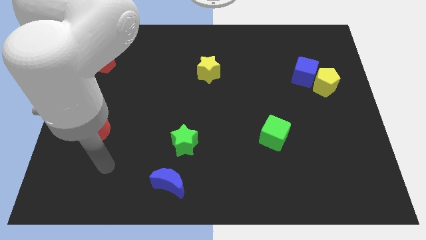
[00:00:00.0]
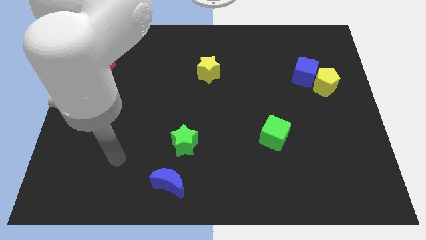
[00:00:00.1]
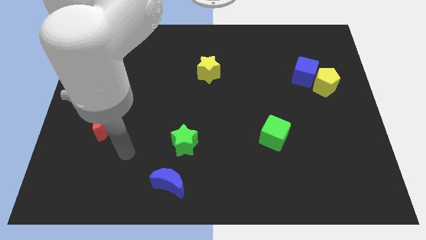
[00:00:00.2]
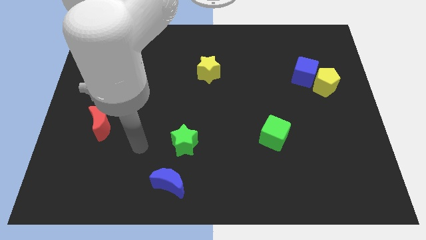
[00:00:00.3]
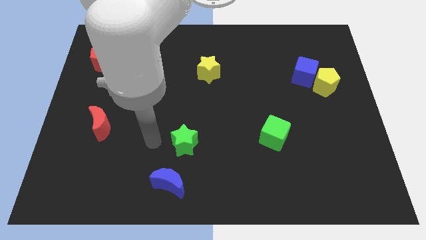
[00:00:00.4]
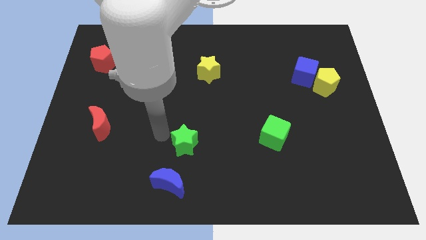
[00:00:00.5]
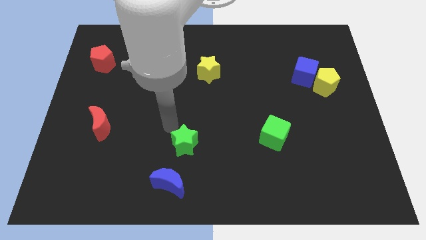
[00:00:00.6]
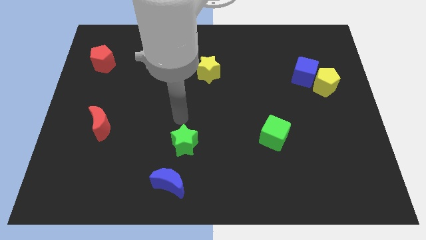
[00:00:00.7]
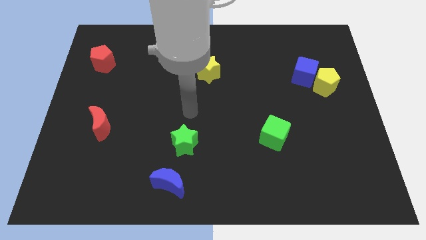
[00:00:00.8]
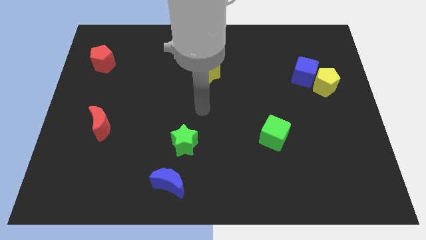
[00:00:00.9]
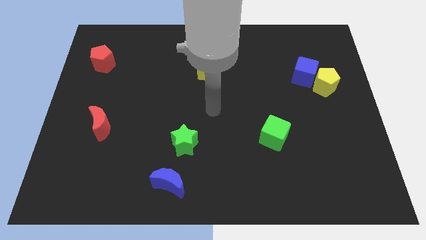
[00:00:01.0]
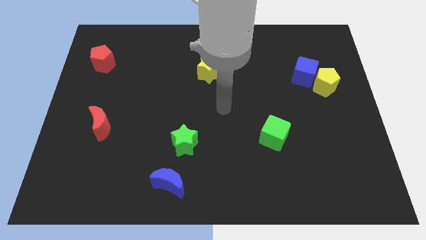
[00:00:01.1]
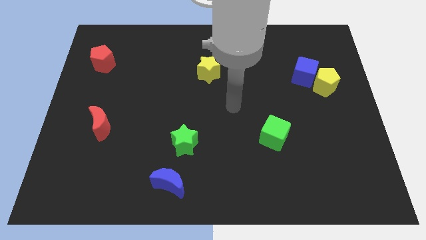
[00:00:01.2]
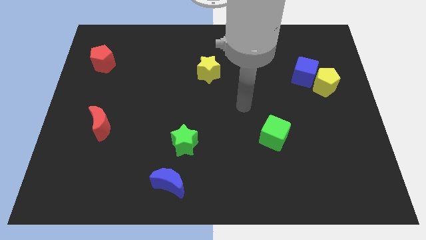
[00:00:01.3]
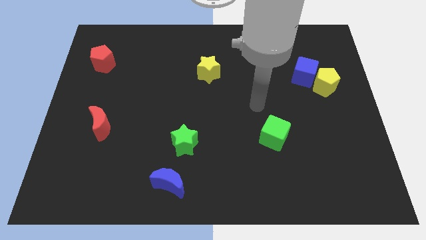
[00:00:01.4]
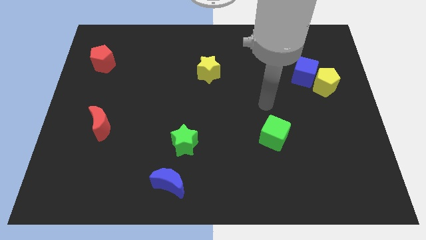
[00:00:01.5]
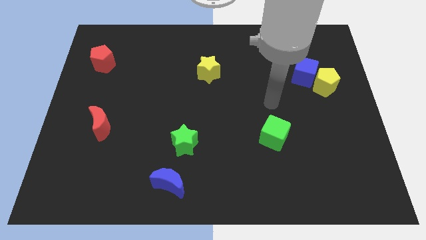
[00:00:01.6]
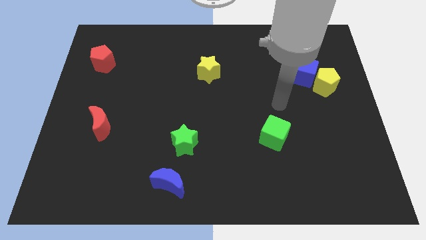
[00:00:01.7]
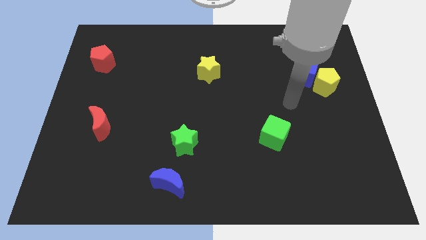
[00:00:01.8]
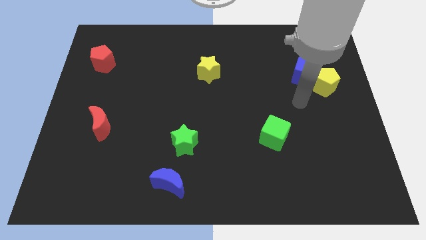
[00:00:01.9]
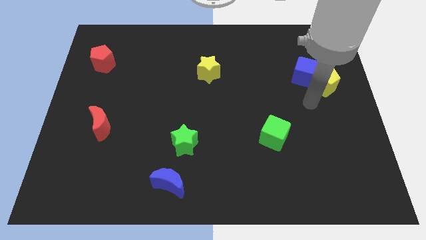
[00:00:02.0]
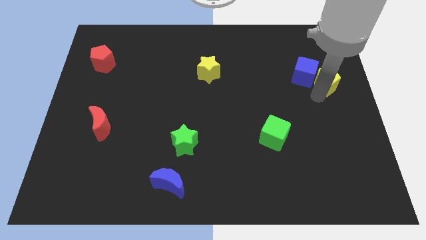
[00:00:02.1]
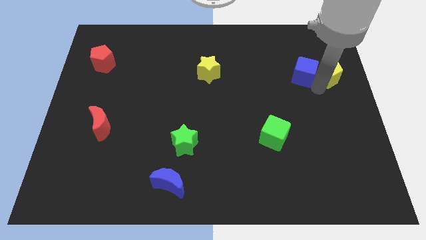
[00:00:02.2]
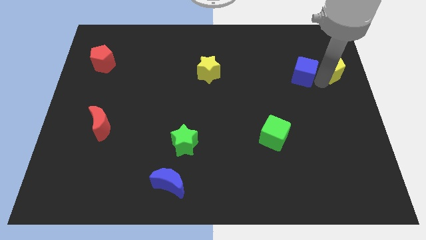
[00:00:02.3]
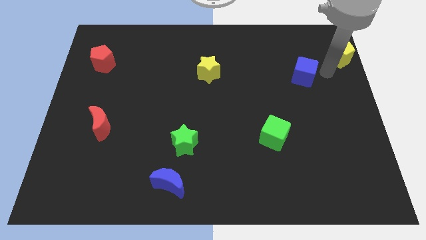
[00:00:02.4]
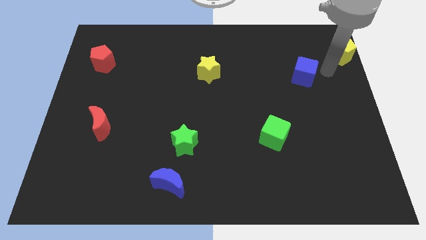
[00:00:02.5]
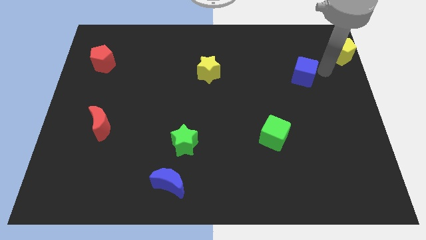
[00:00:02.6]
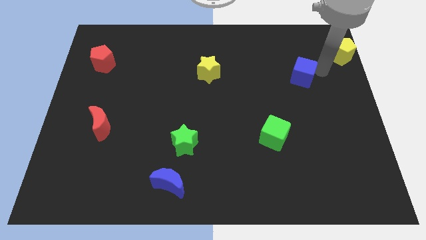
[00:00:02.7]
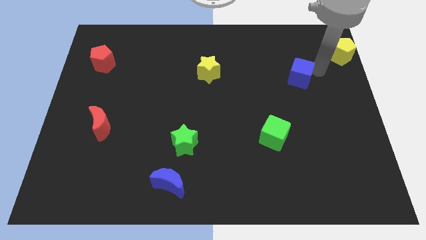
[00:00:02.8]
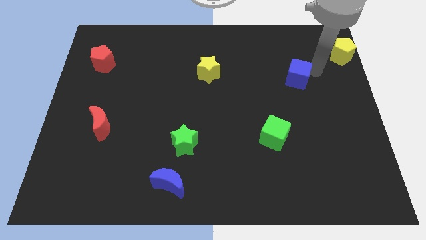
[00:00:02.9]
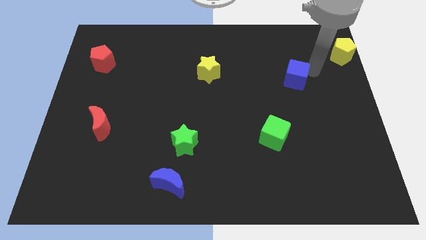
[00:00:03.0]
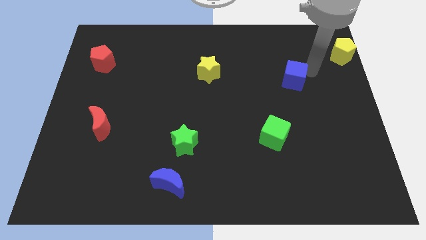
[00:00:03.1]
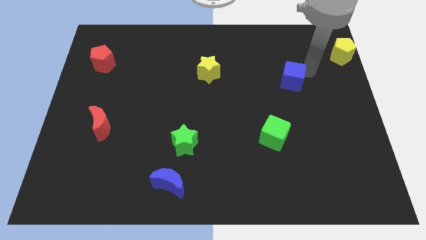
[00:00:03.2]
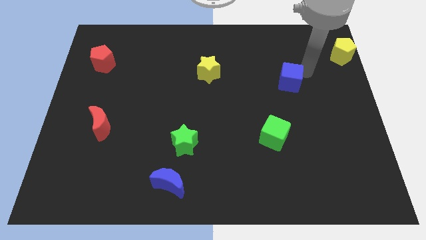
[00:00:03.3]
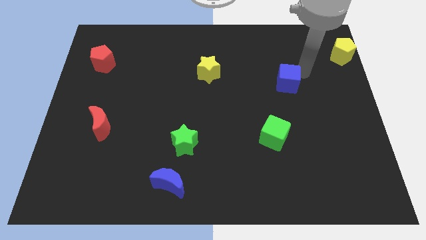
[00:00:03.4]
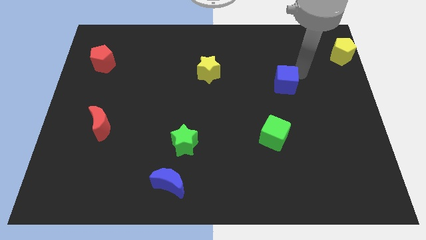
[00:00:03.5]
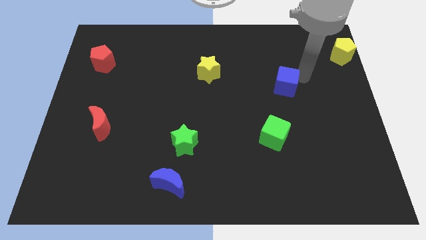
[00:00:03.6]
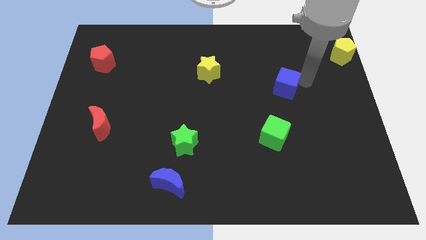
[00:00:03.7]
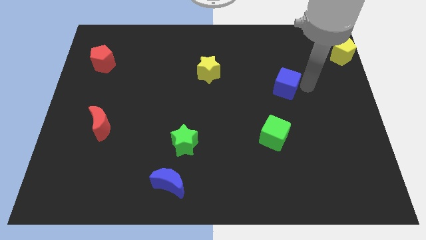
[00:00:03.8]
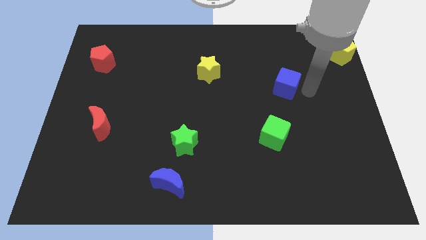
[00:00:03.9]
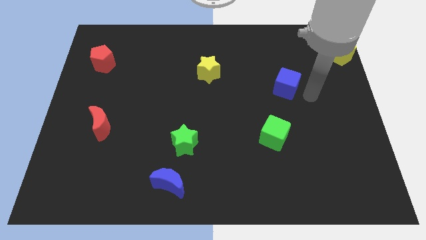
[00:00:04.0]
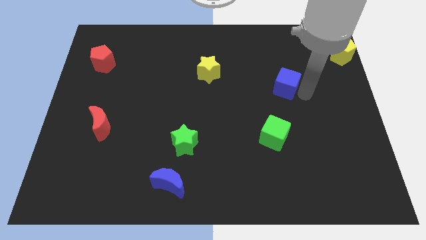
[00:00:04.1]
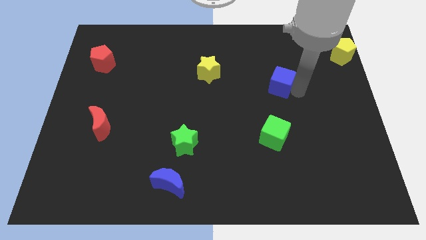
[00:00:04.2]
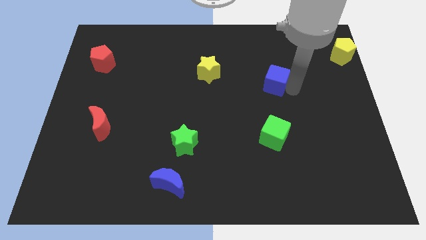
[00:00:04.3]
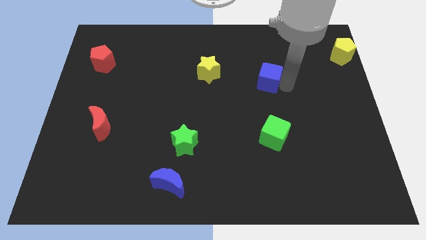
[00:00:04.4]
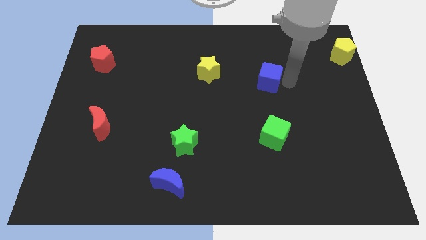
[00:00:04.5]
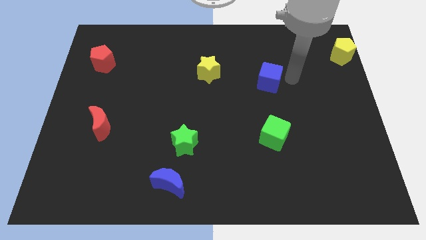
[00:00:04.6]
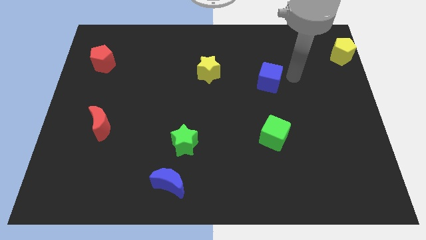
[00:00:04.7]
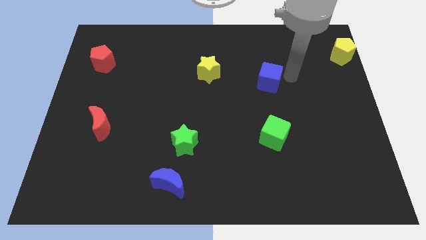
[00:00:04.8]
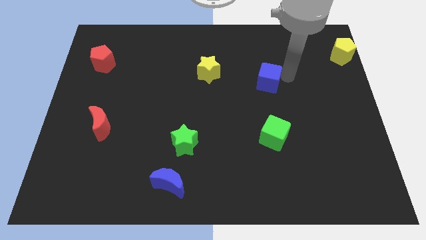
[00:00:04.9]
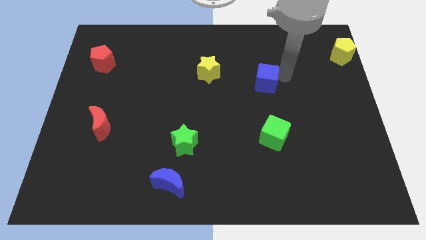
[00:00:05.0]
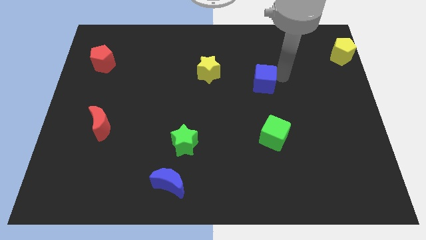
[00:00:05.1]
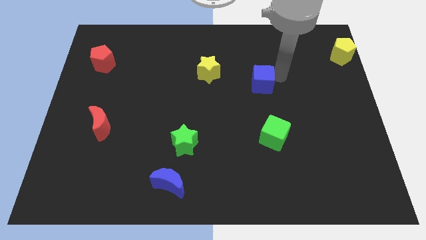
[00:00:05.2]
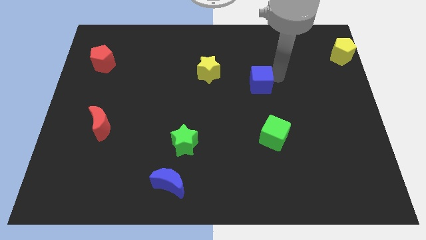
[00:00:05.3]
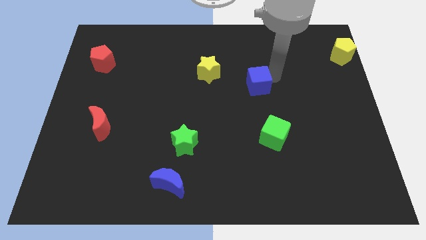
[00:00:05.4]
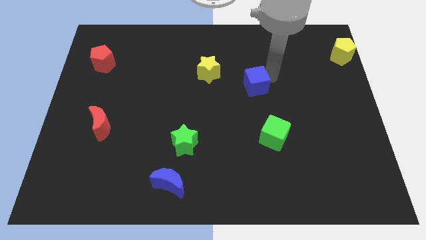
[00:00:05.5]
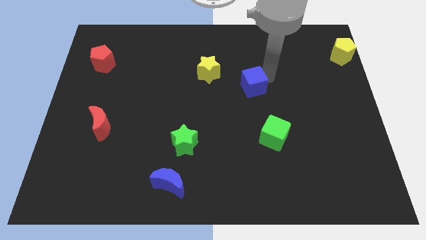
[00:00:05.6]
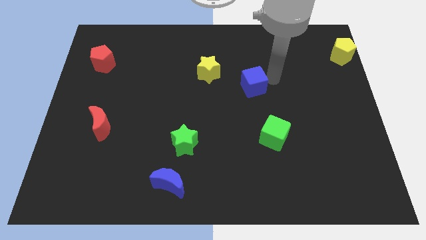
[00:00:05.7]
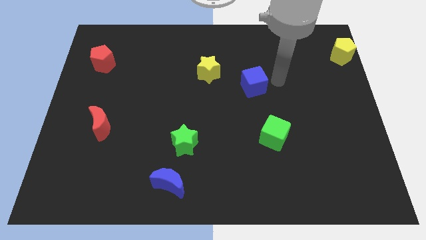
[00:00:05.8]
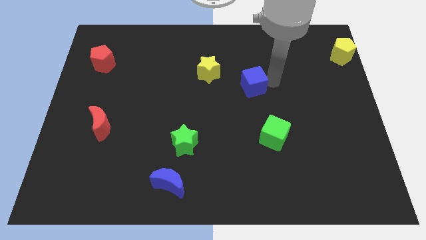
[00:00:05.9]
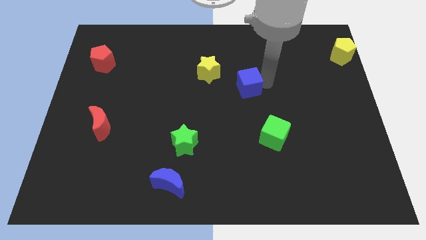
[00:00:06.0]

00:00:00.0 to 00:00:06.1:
put the blue cube diagonally down and to the right of the yellow star

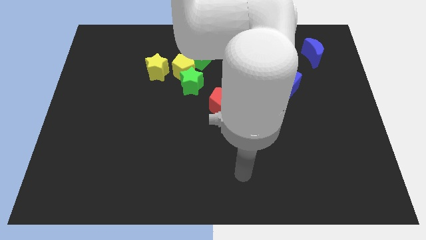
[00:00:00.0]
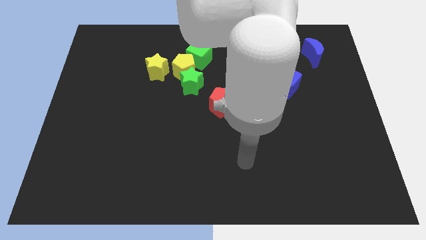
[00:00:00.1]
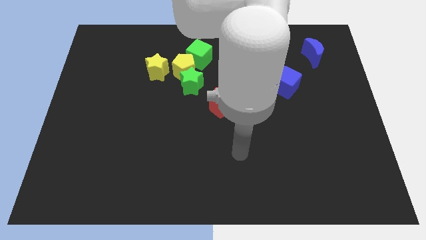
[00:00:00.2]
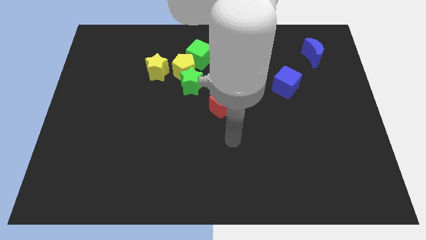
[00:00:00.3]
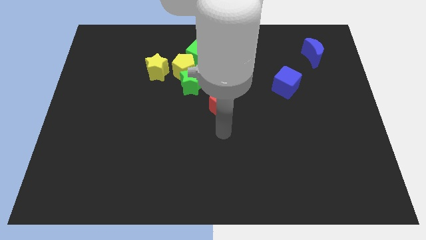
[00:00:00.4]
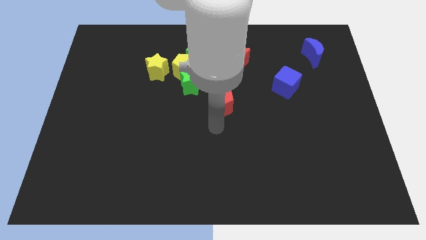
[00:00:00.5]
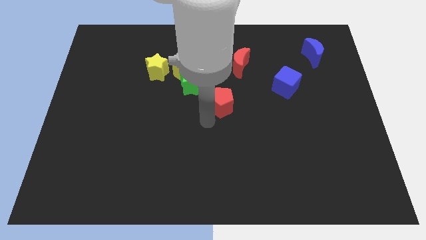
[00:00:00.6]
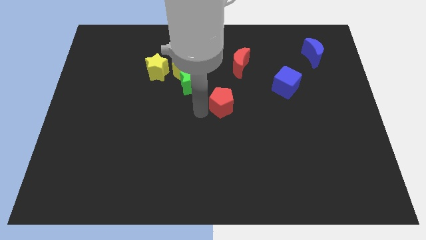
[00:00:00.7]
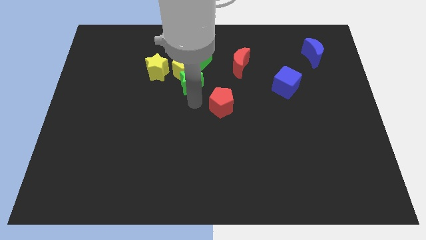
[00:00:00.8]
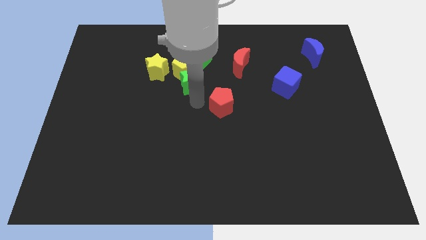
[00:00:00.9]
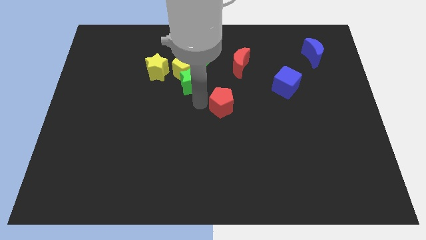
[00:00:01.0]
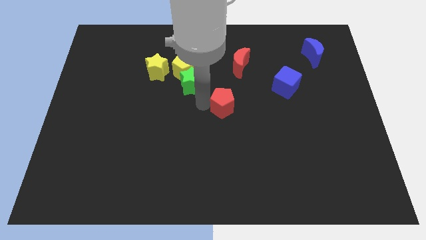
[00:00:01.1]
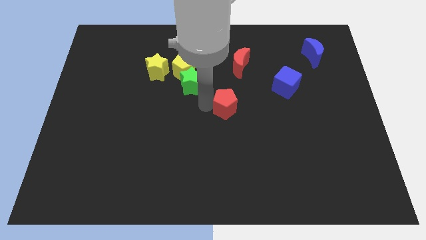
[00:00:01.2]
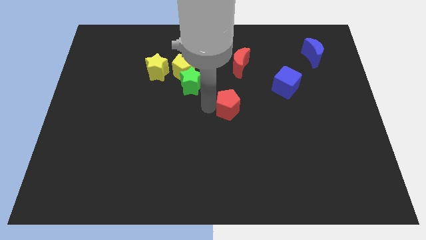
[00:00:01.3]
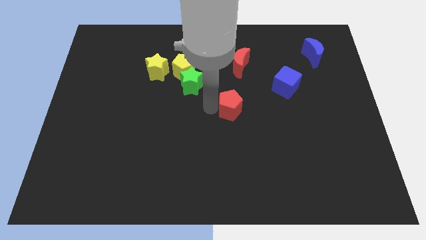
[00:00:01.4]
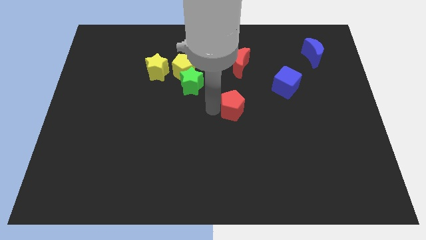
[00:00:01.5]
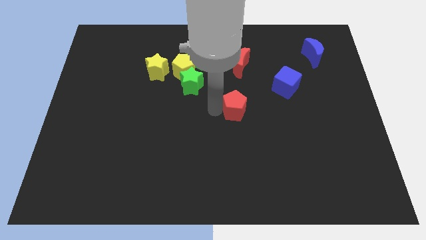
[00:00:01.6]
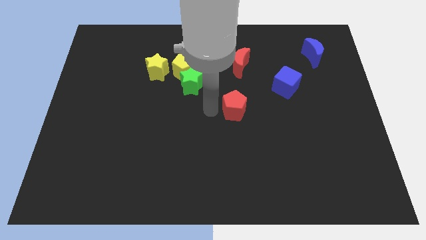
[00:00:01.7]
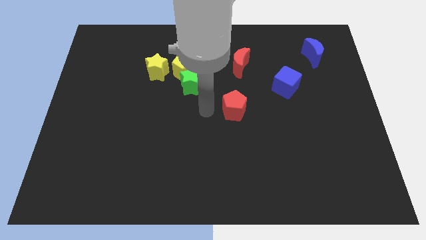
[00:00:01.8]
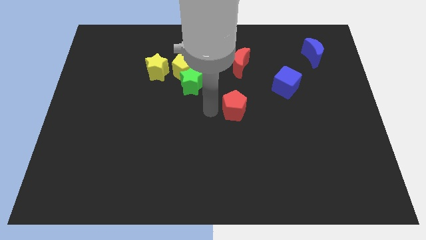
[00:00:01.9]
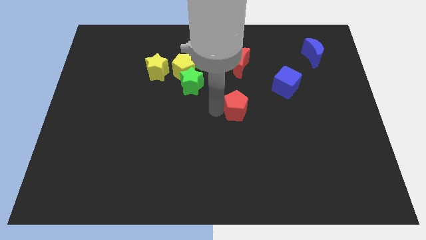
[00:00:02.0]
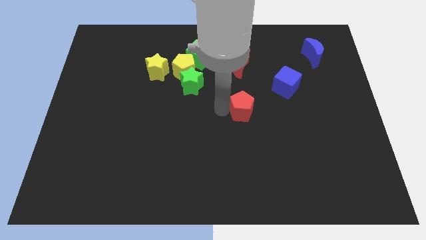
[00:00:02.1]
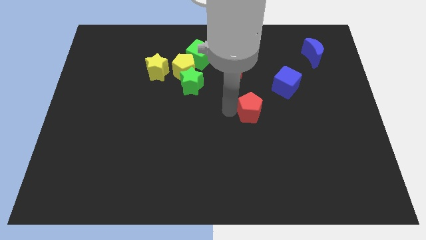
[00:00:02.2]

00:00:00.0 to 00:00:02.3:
push the red pentagon diagonally down and to the left of the blue cube

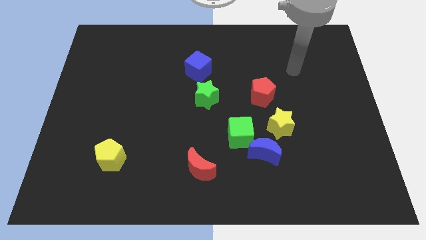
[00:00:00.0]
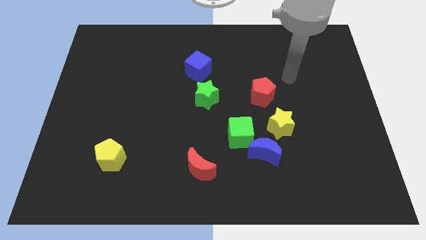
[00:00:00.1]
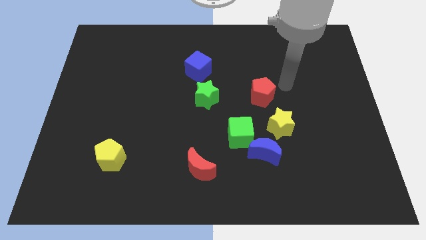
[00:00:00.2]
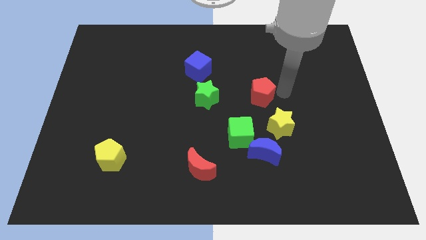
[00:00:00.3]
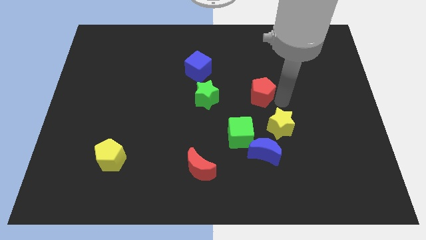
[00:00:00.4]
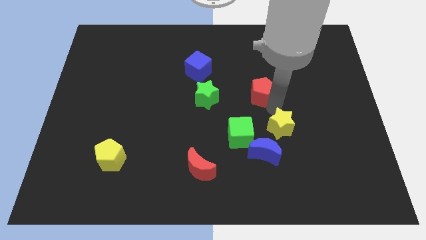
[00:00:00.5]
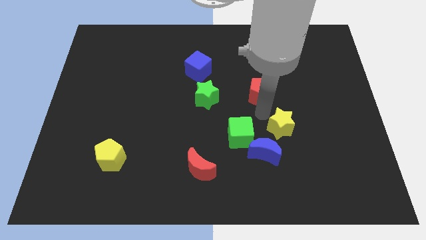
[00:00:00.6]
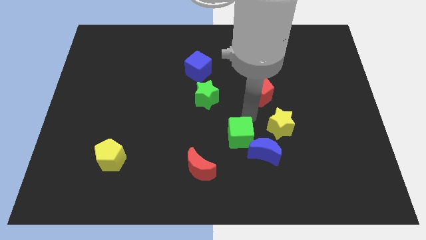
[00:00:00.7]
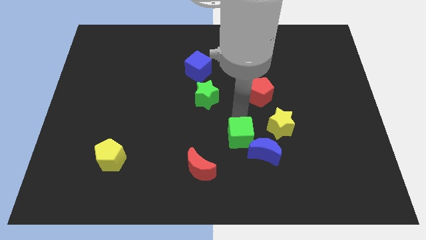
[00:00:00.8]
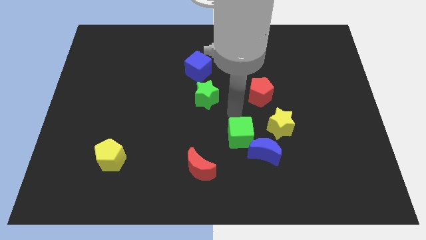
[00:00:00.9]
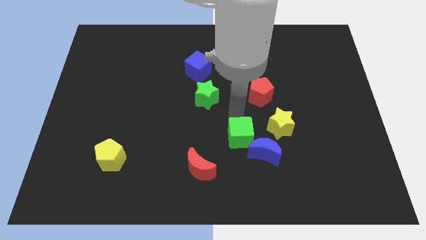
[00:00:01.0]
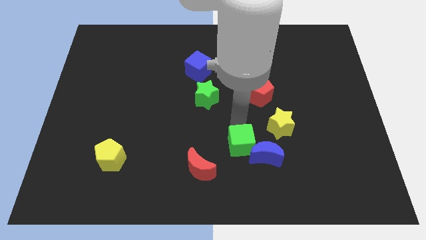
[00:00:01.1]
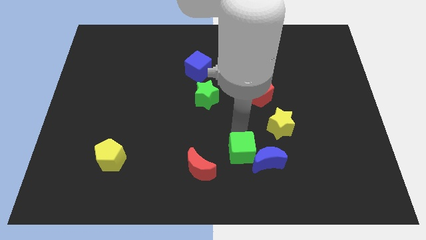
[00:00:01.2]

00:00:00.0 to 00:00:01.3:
put the green cube right of the red moon
